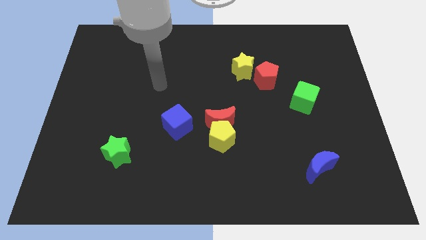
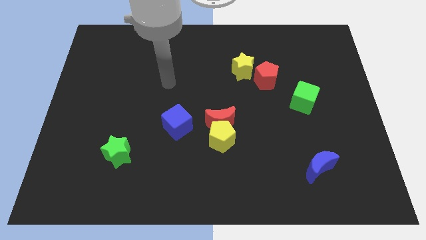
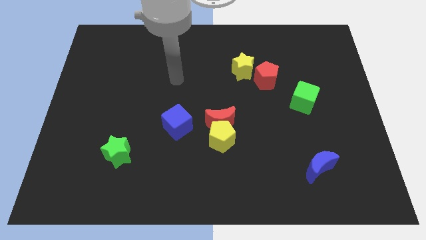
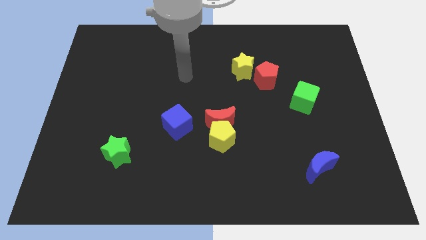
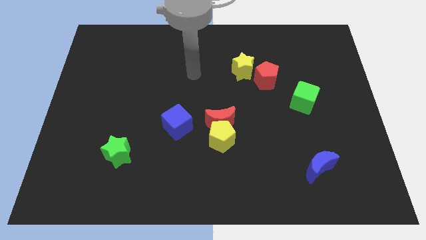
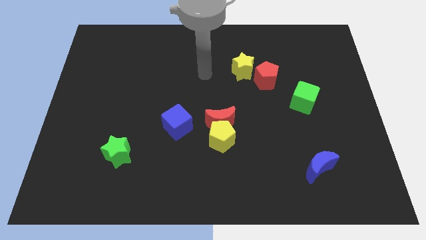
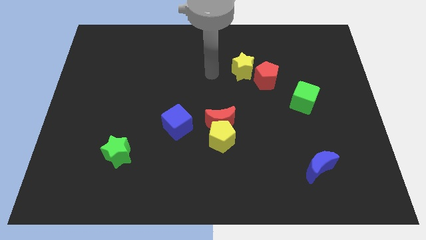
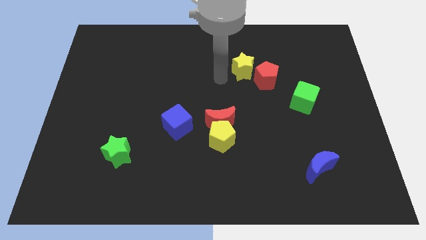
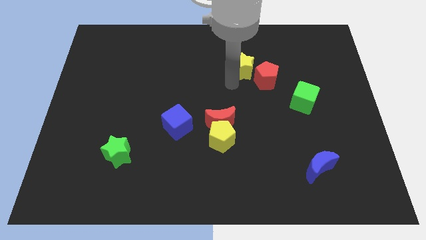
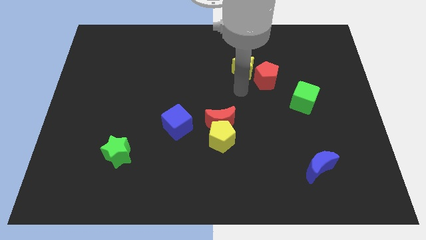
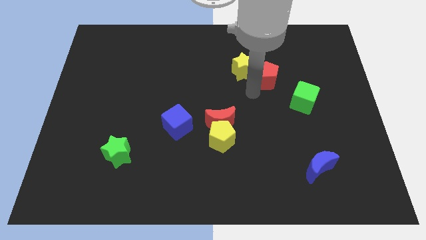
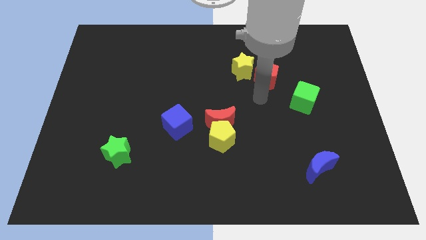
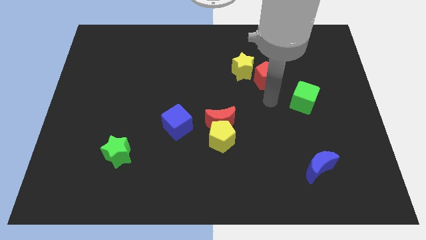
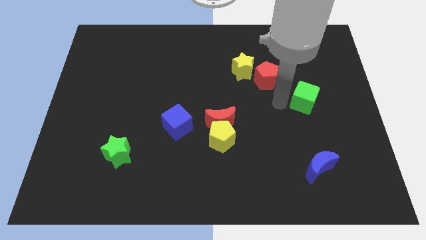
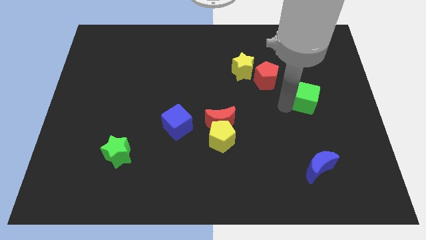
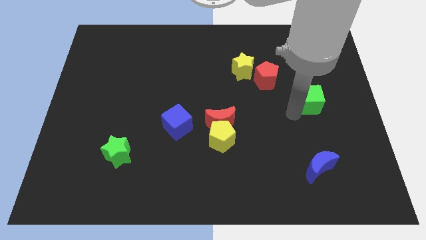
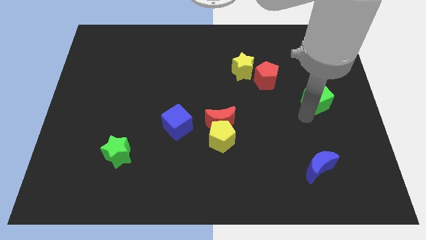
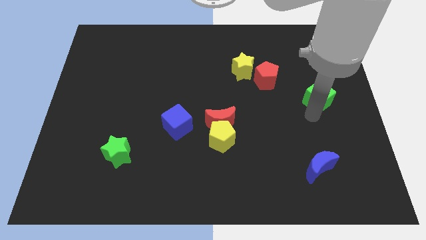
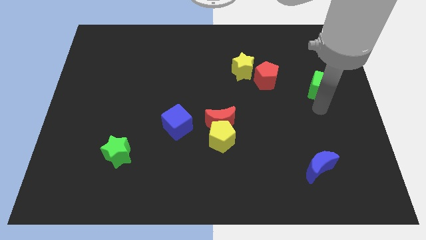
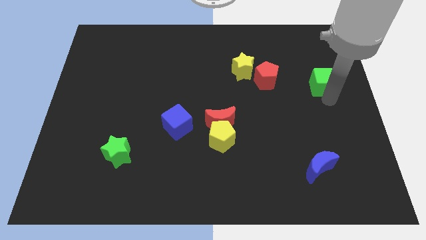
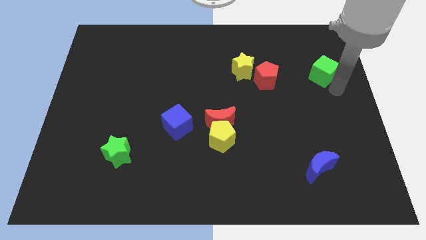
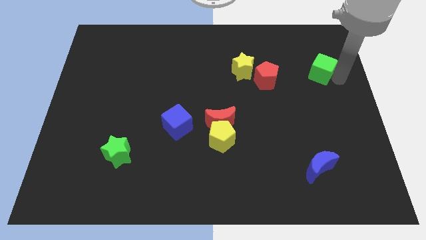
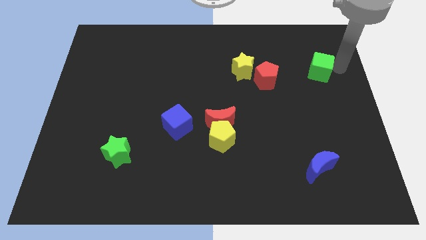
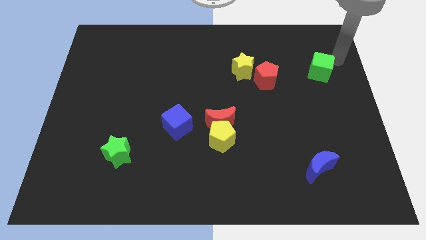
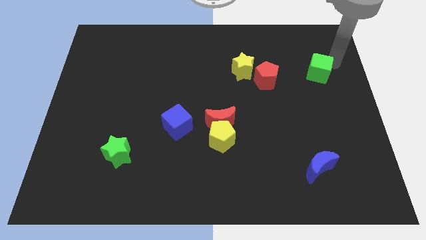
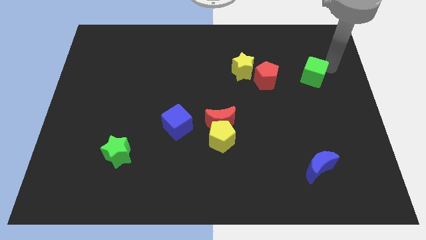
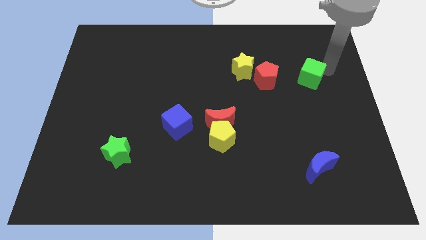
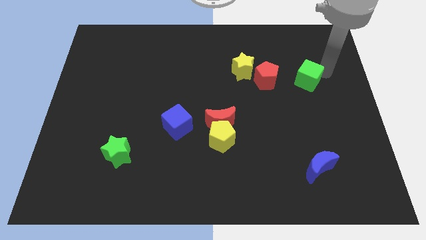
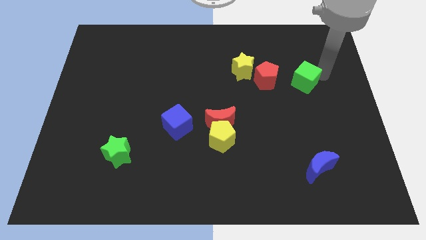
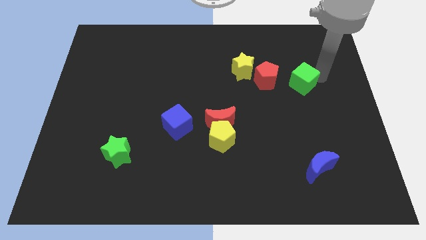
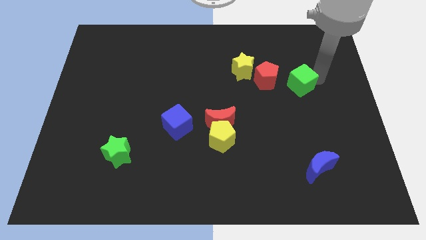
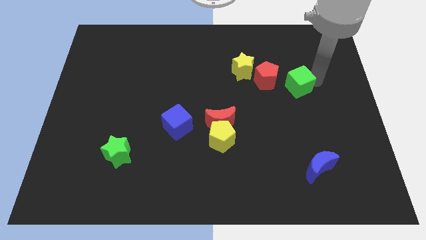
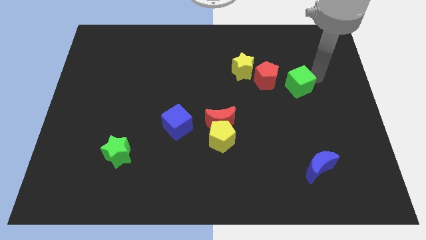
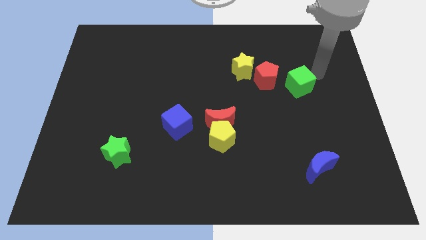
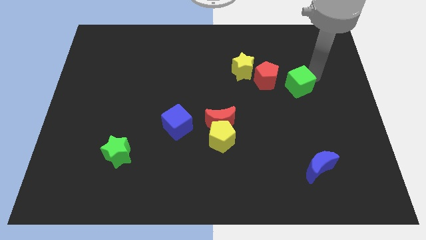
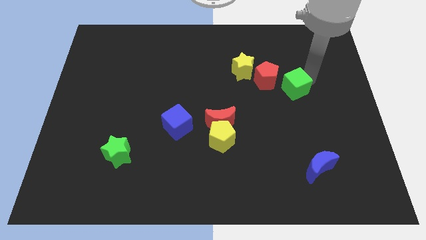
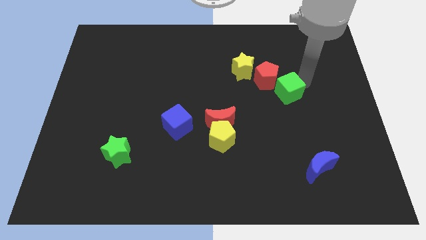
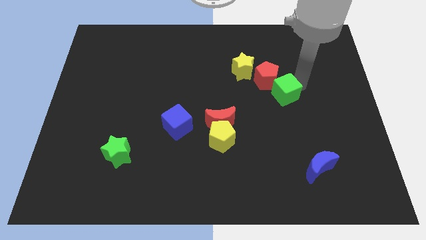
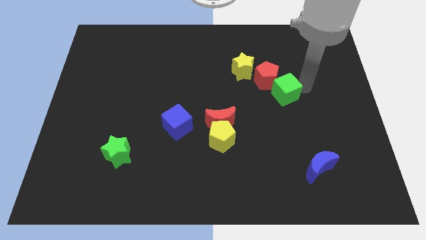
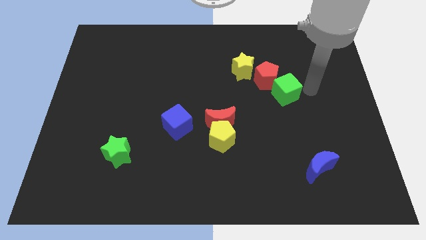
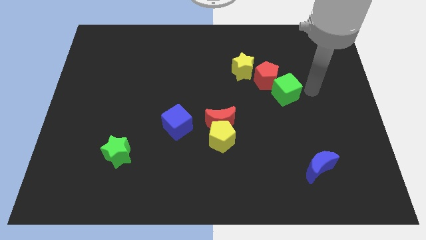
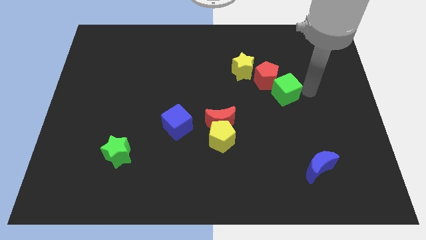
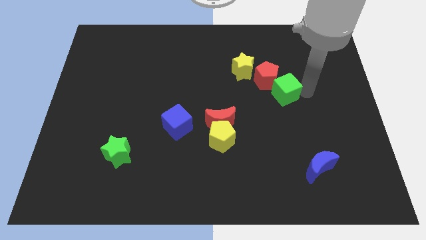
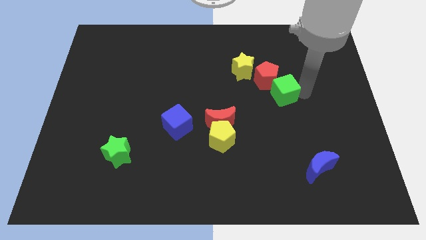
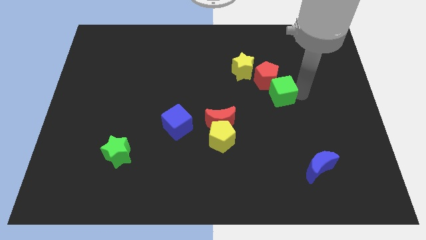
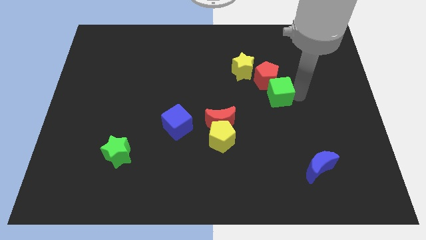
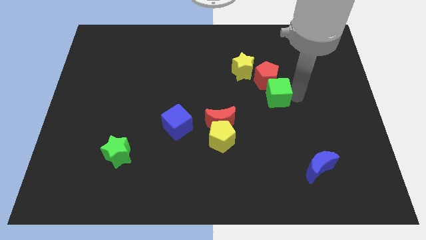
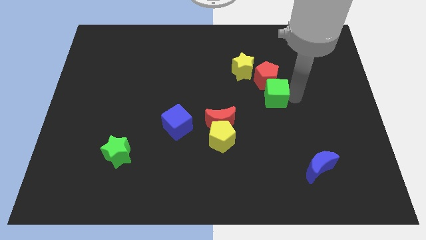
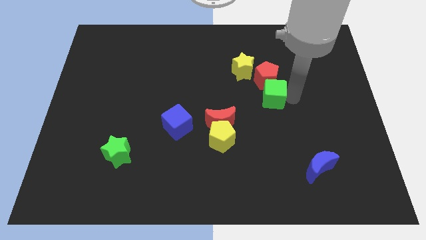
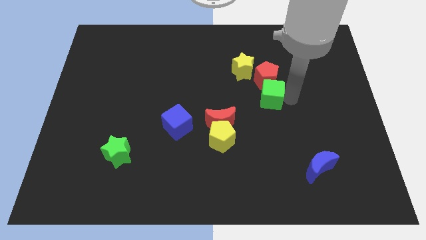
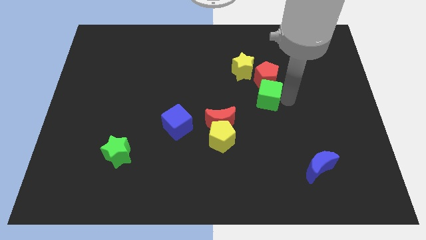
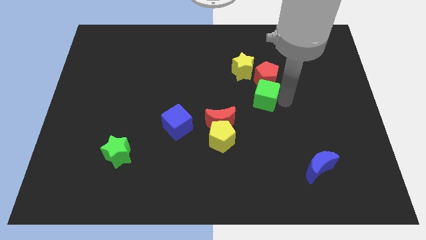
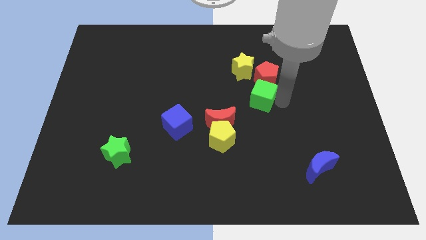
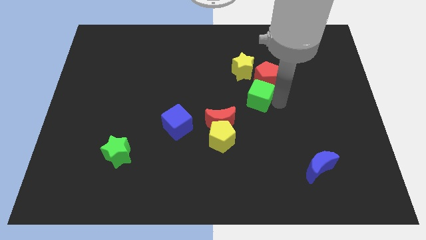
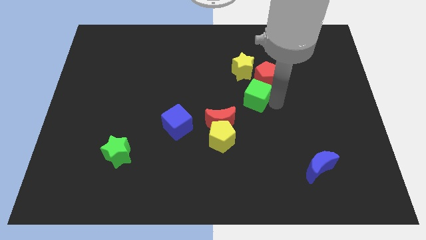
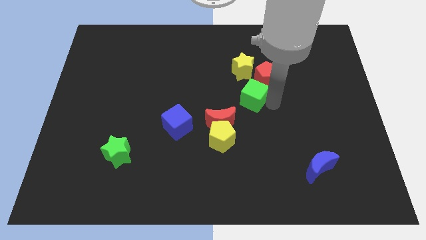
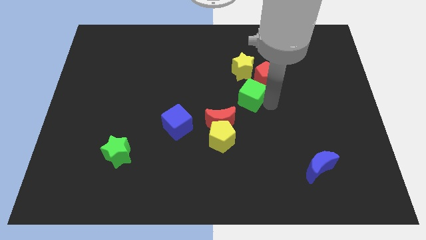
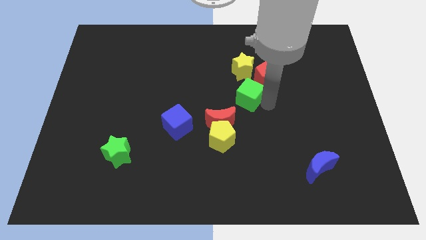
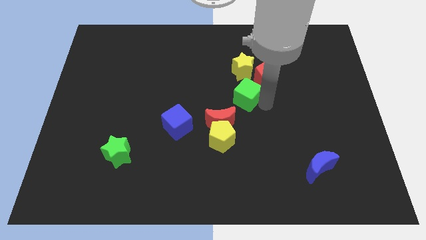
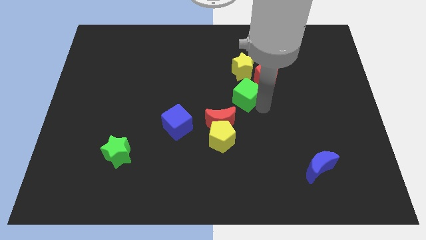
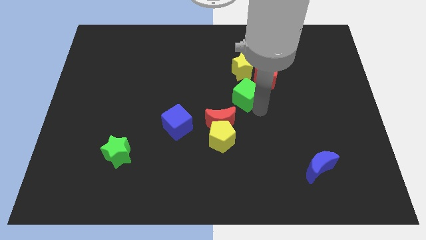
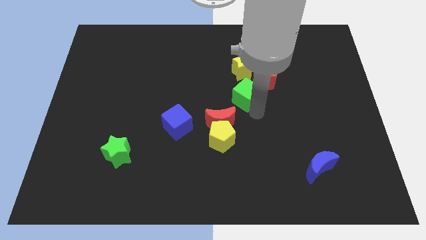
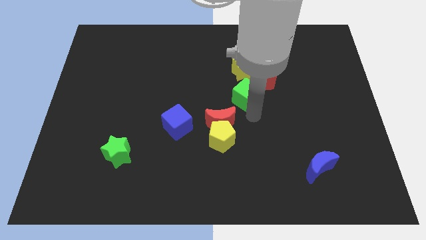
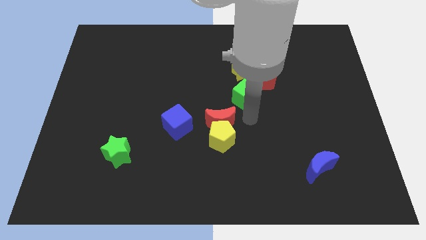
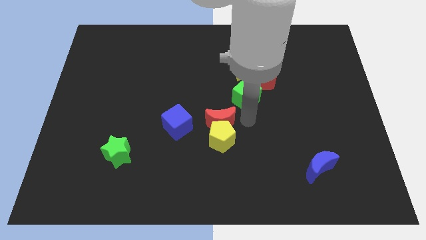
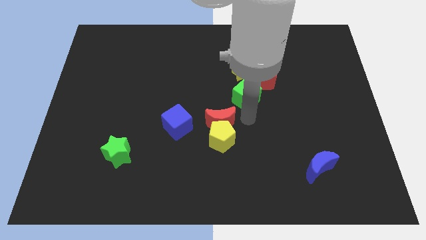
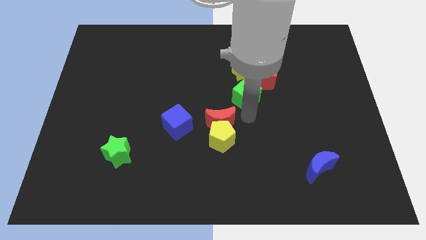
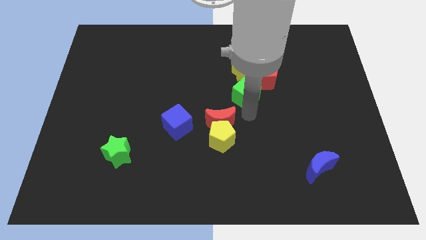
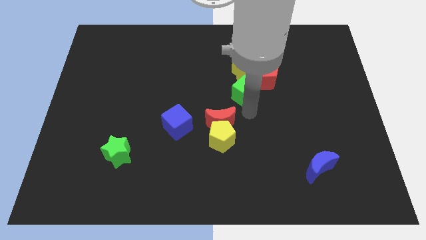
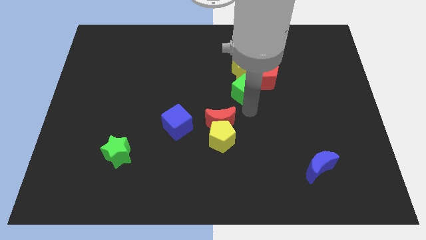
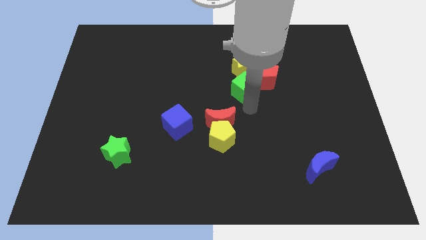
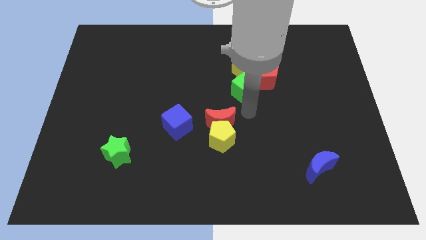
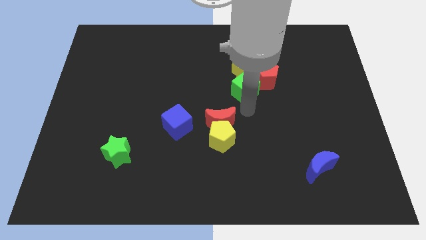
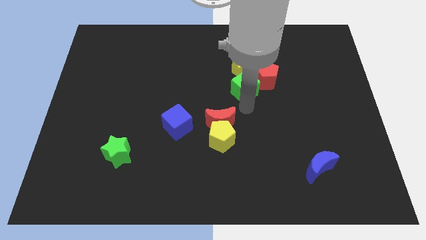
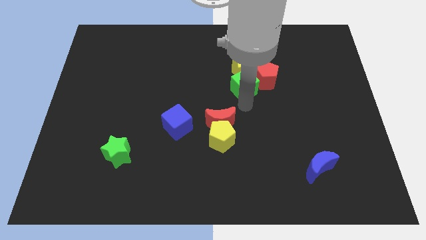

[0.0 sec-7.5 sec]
slide the green cube towards the yellow star
